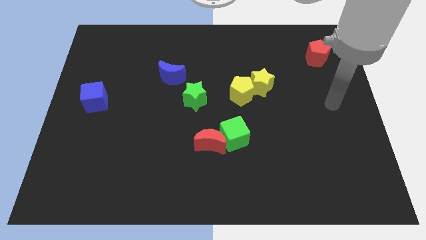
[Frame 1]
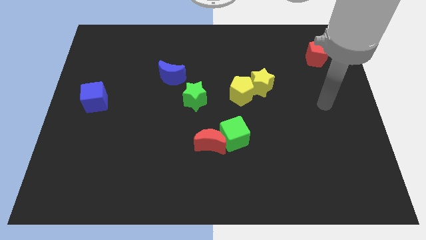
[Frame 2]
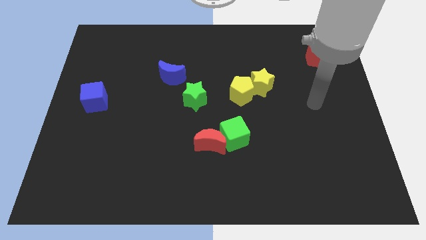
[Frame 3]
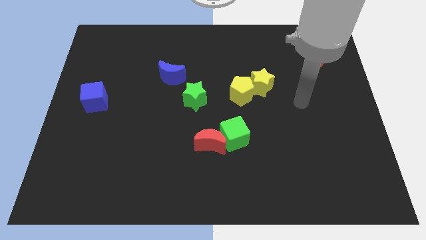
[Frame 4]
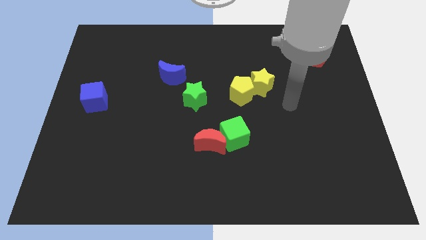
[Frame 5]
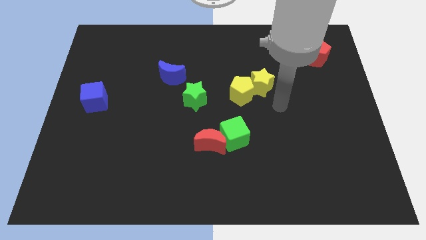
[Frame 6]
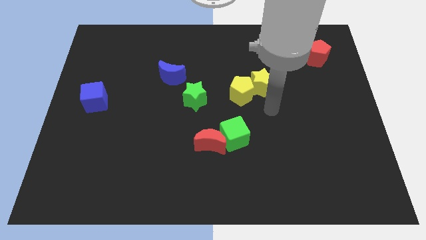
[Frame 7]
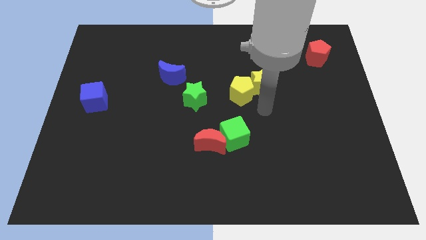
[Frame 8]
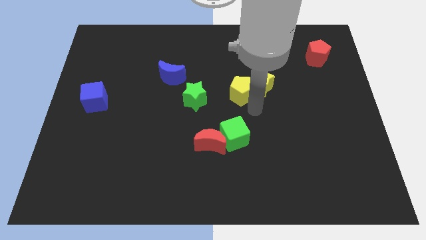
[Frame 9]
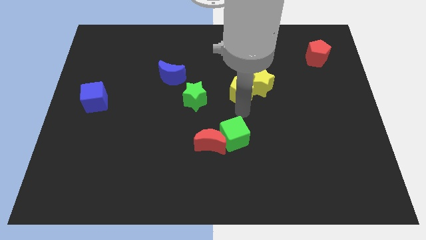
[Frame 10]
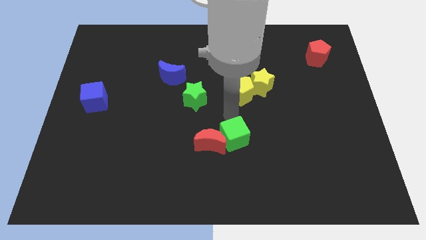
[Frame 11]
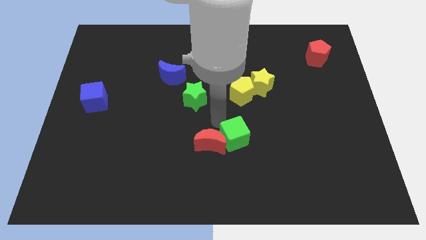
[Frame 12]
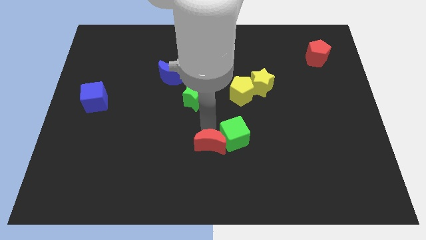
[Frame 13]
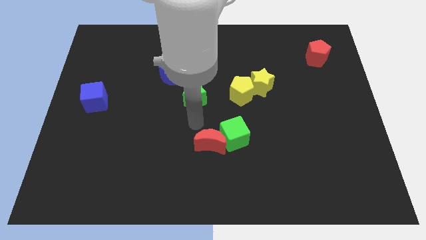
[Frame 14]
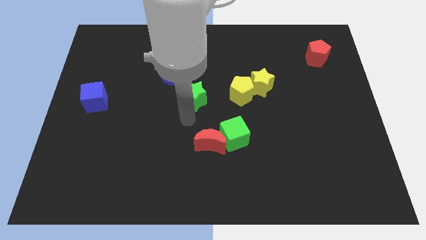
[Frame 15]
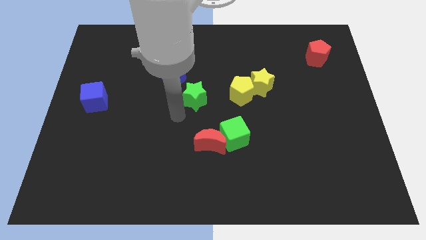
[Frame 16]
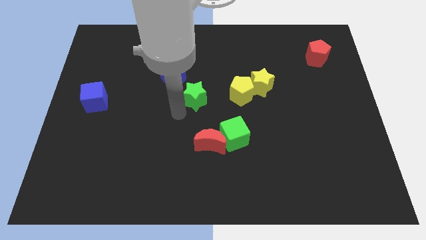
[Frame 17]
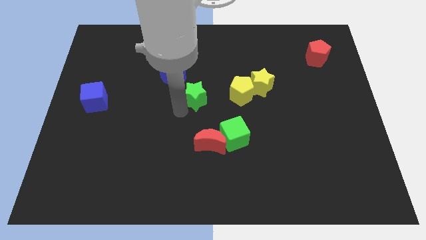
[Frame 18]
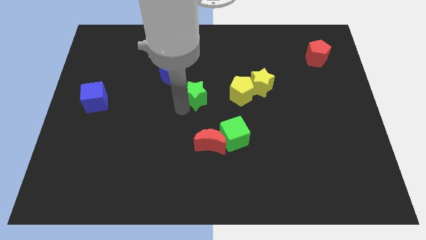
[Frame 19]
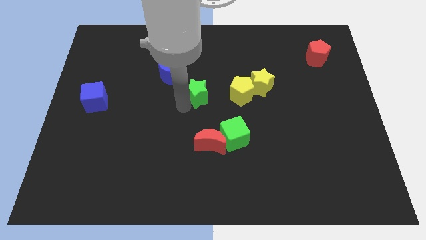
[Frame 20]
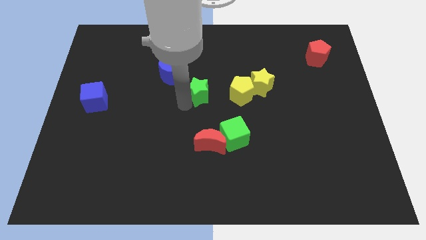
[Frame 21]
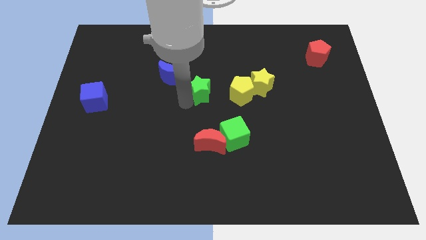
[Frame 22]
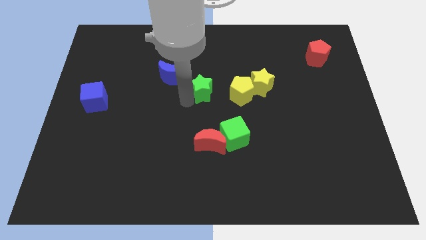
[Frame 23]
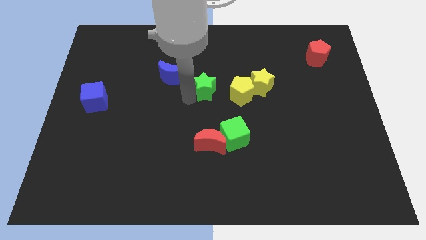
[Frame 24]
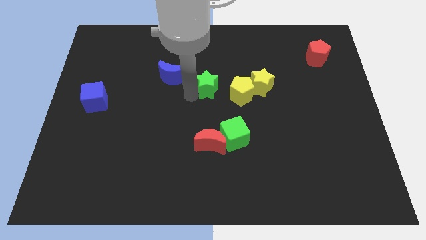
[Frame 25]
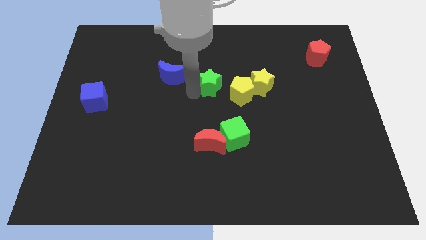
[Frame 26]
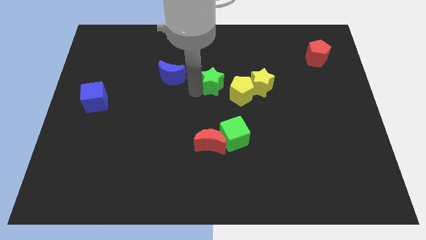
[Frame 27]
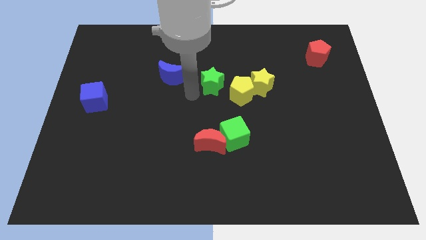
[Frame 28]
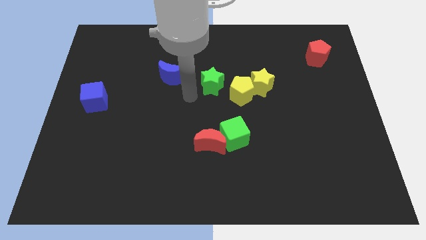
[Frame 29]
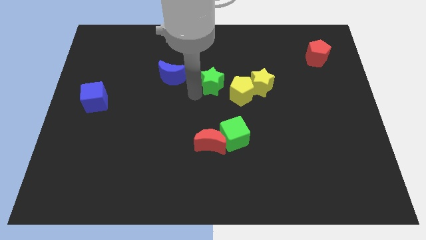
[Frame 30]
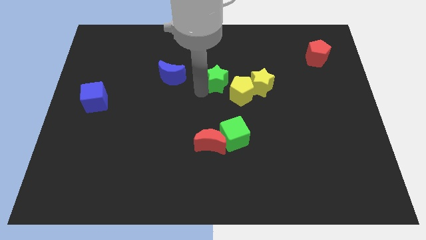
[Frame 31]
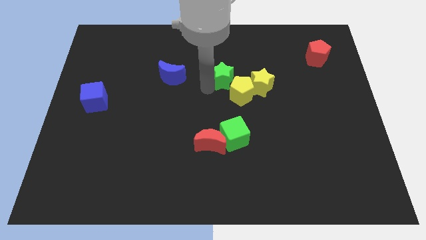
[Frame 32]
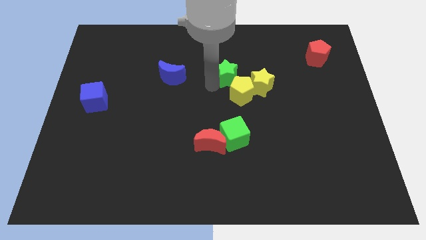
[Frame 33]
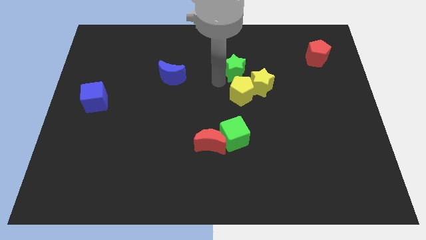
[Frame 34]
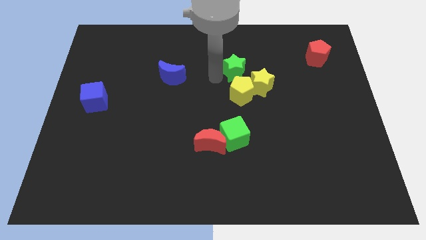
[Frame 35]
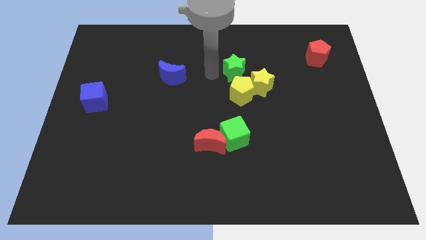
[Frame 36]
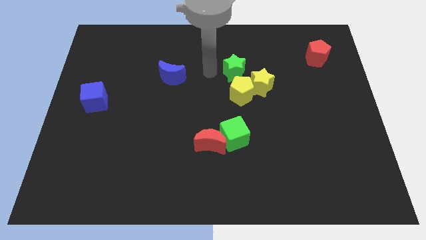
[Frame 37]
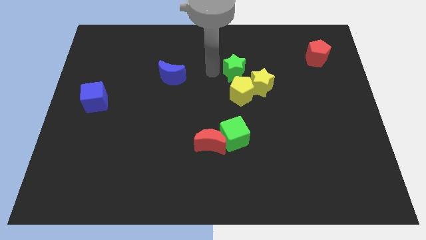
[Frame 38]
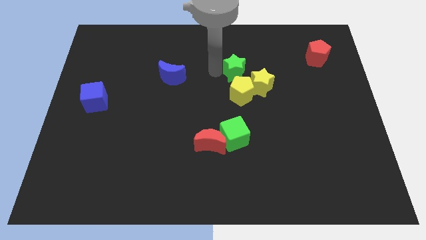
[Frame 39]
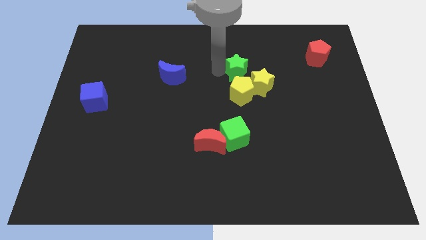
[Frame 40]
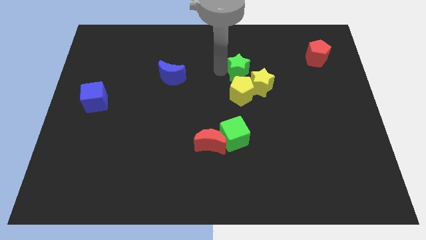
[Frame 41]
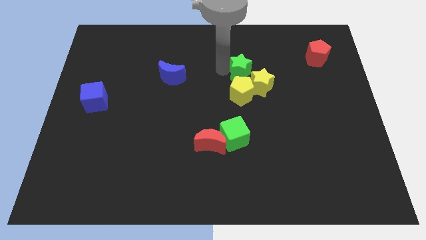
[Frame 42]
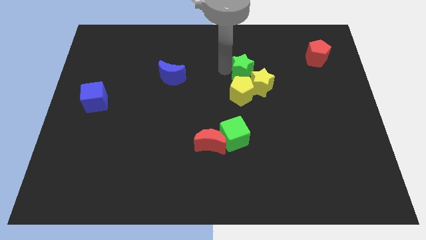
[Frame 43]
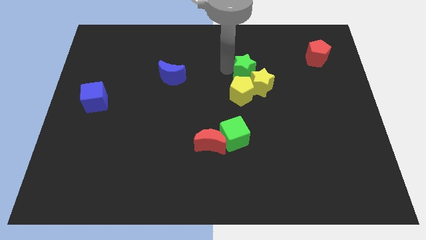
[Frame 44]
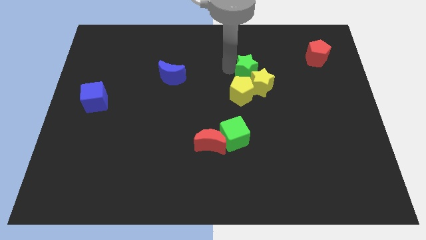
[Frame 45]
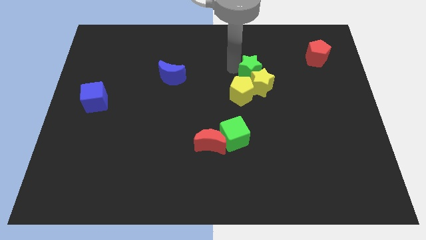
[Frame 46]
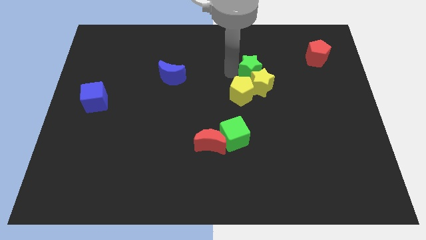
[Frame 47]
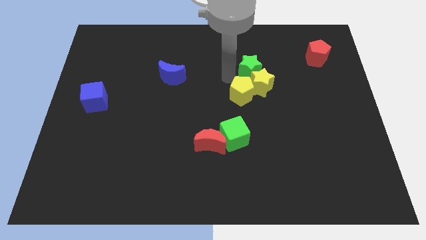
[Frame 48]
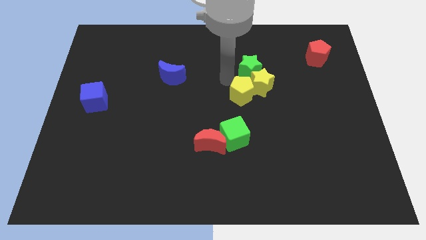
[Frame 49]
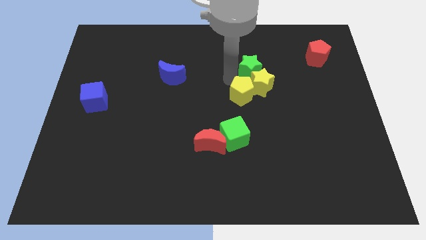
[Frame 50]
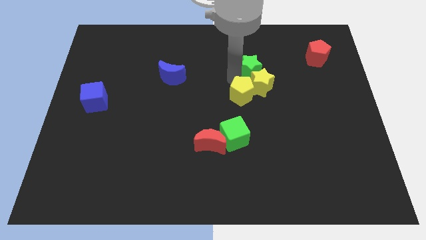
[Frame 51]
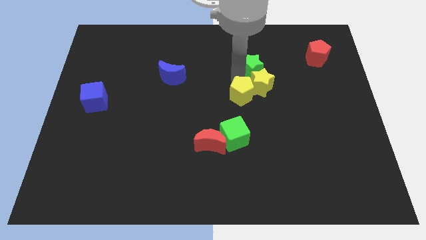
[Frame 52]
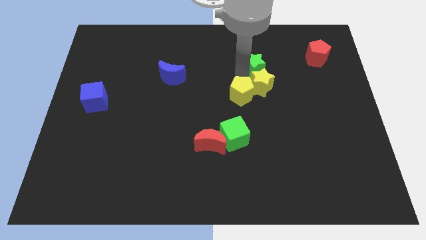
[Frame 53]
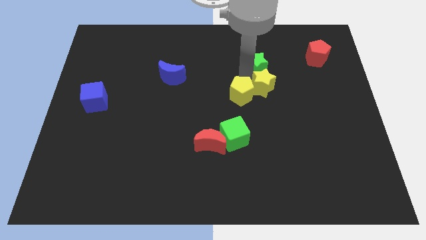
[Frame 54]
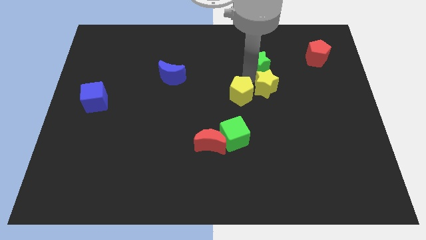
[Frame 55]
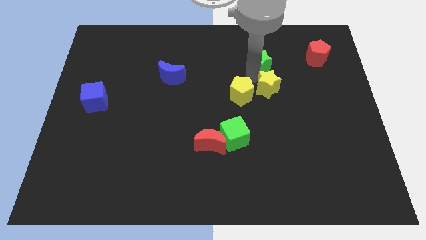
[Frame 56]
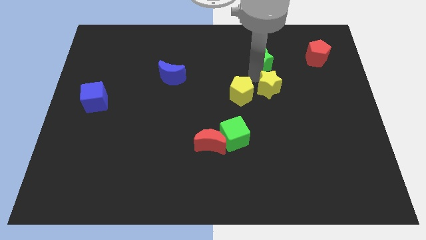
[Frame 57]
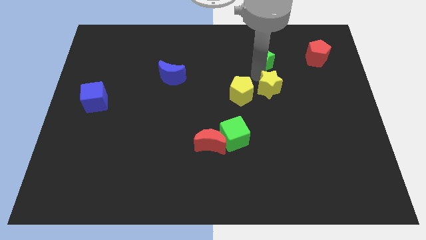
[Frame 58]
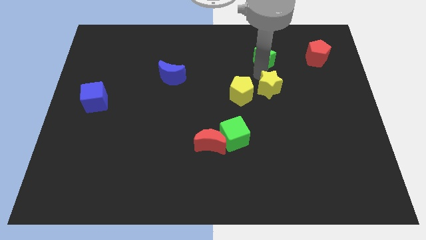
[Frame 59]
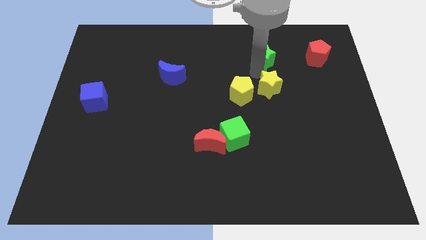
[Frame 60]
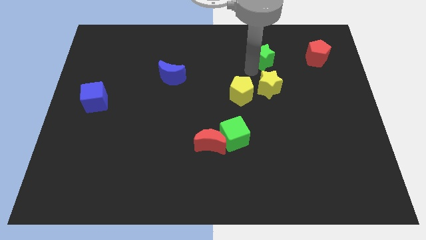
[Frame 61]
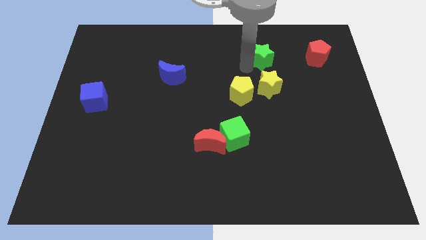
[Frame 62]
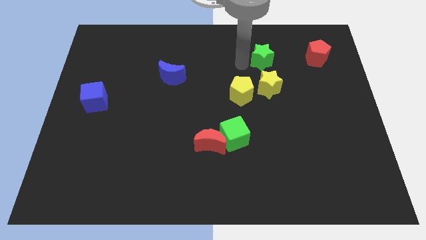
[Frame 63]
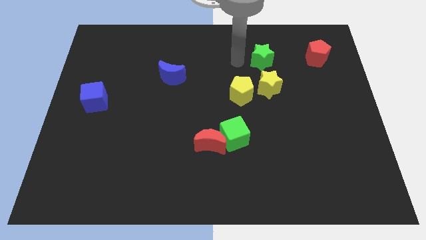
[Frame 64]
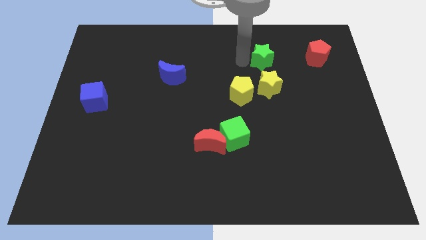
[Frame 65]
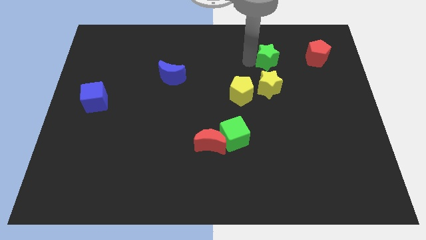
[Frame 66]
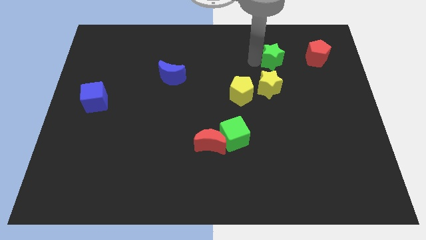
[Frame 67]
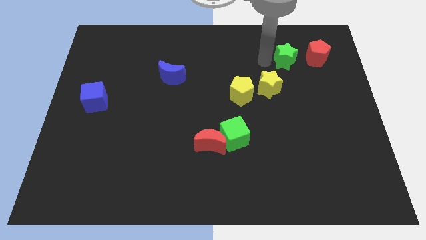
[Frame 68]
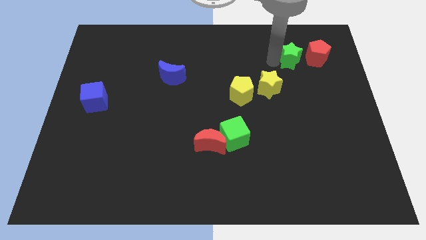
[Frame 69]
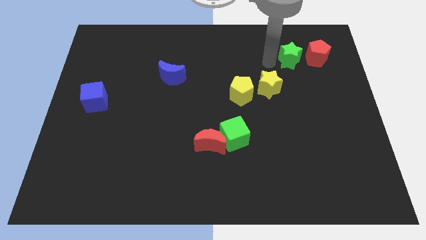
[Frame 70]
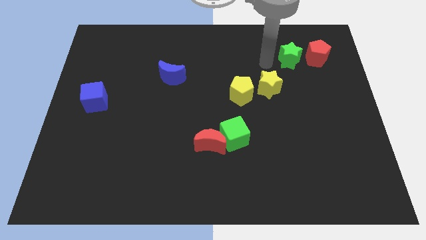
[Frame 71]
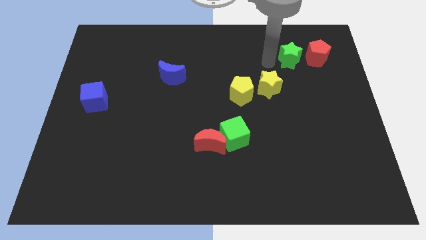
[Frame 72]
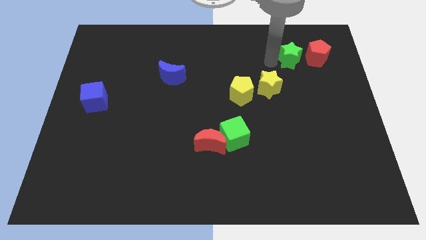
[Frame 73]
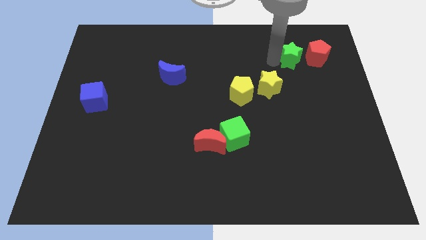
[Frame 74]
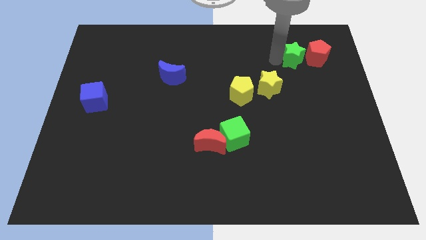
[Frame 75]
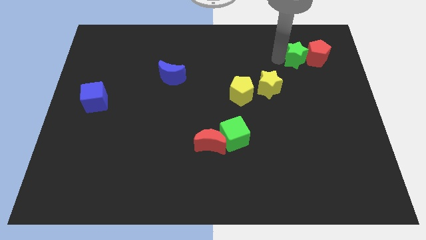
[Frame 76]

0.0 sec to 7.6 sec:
push the green star towards the red pentagon
